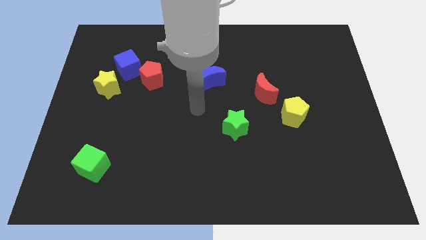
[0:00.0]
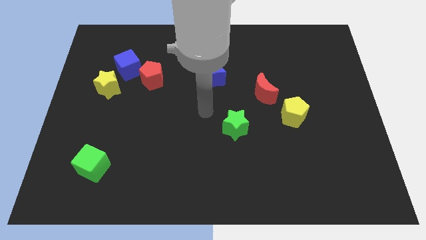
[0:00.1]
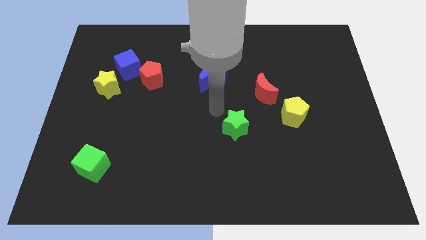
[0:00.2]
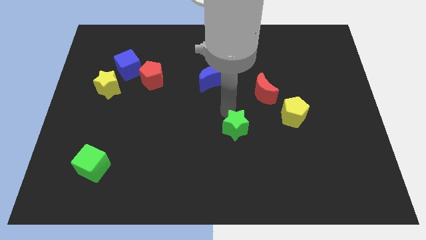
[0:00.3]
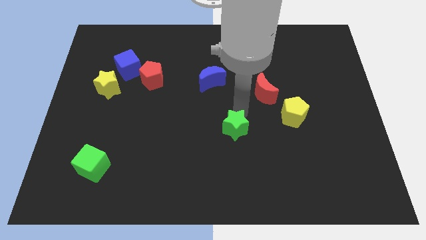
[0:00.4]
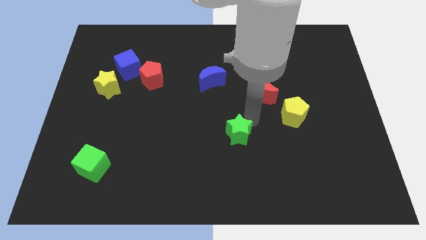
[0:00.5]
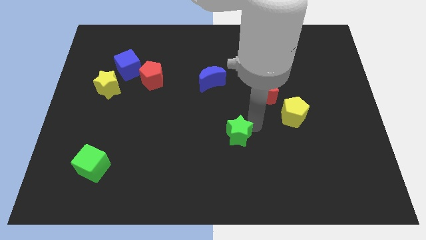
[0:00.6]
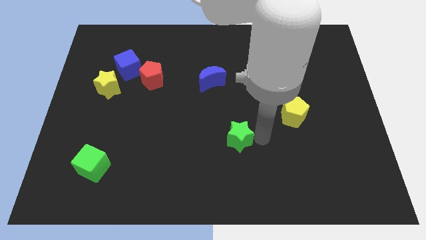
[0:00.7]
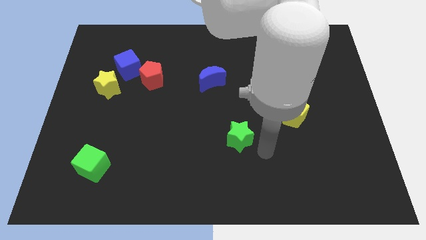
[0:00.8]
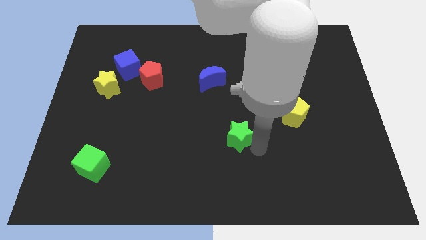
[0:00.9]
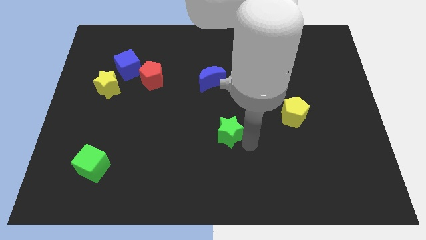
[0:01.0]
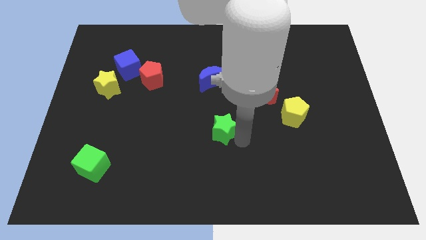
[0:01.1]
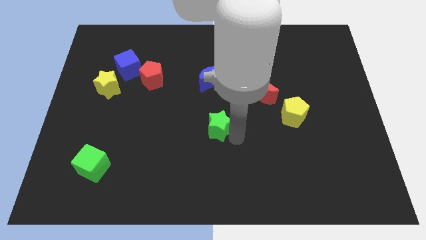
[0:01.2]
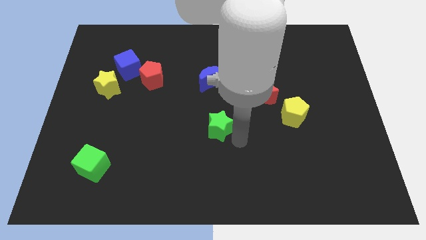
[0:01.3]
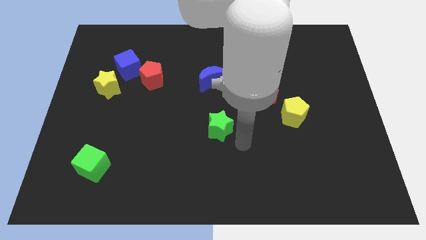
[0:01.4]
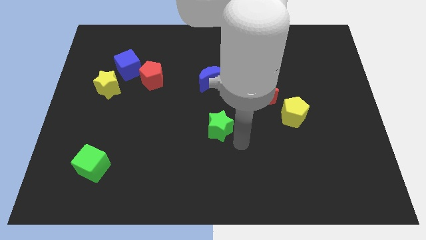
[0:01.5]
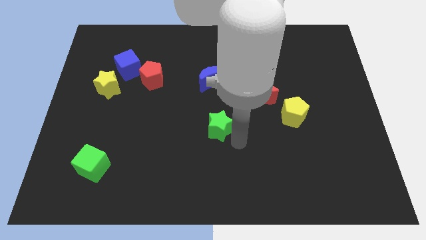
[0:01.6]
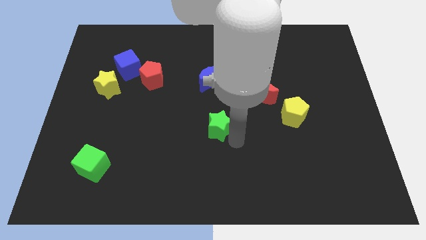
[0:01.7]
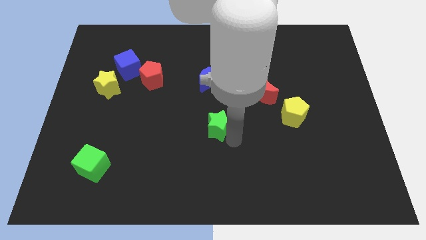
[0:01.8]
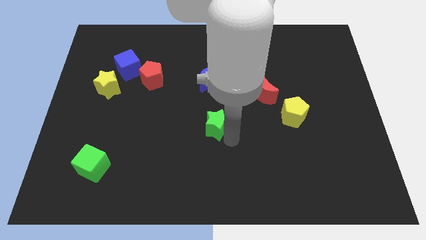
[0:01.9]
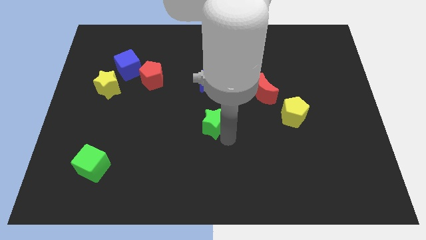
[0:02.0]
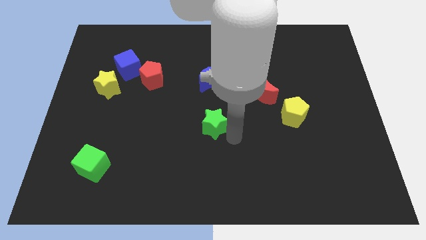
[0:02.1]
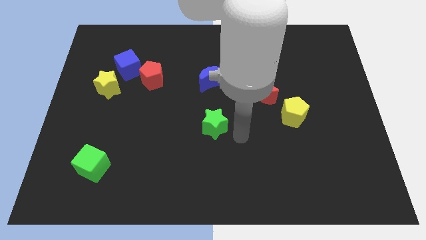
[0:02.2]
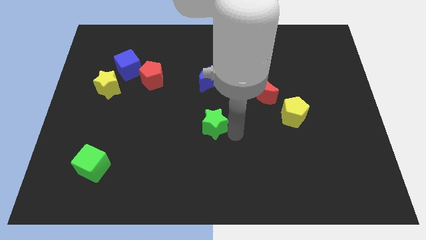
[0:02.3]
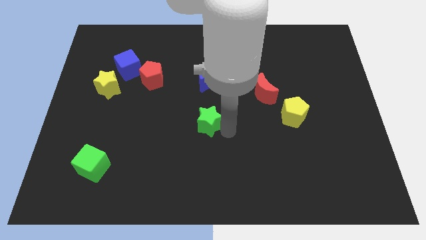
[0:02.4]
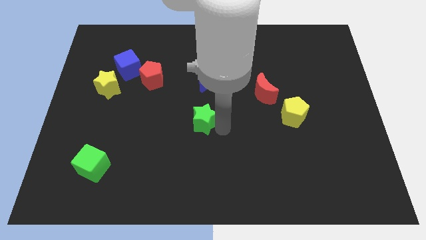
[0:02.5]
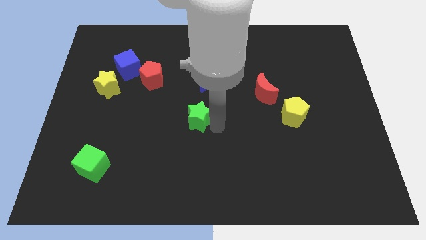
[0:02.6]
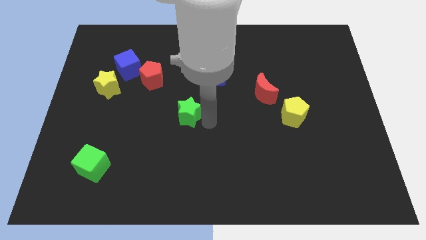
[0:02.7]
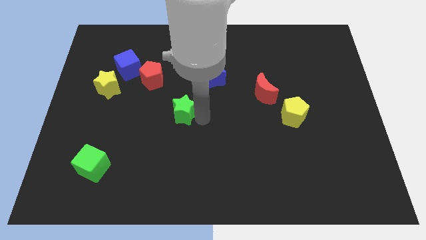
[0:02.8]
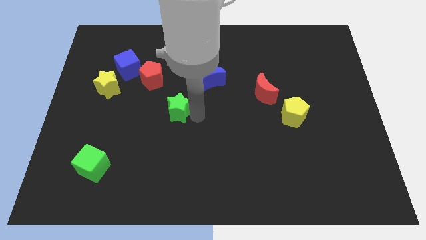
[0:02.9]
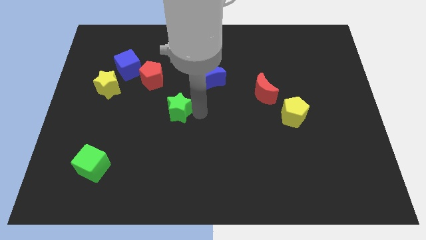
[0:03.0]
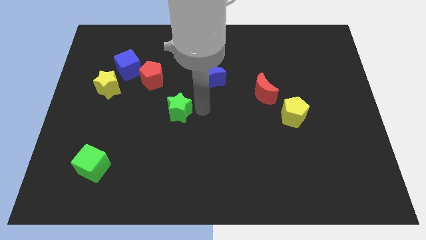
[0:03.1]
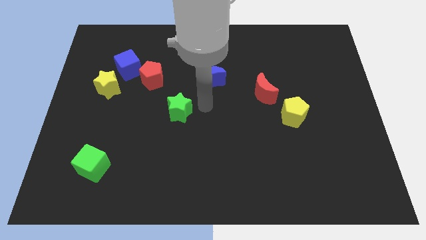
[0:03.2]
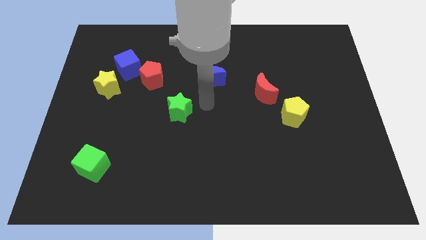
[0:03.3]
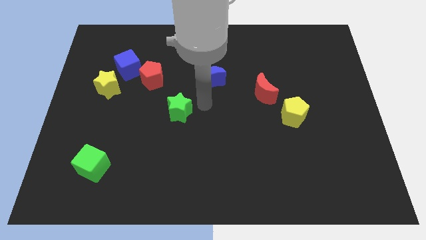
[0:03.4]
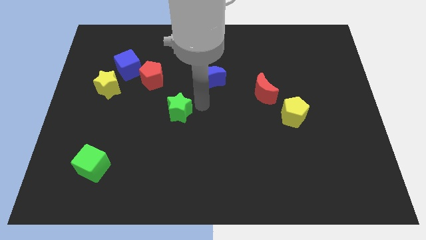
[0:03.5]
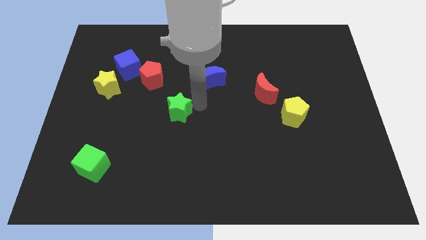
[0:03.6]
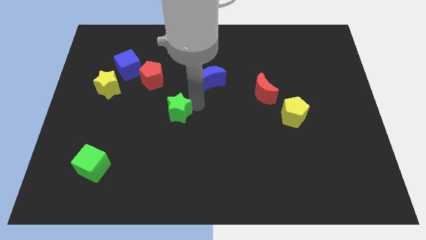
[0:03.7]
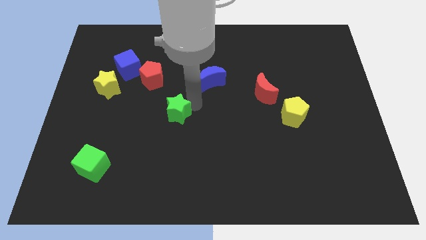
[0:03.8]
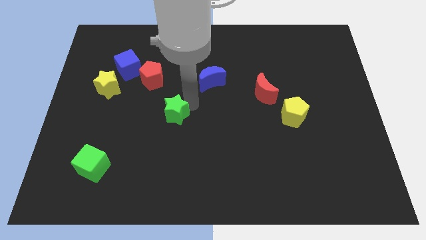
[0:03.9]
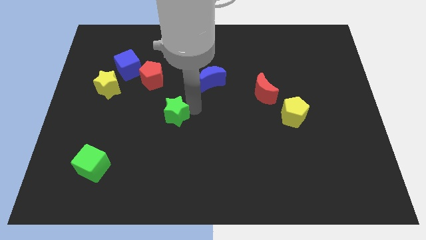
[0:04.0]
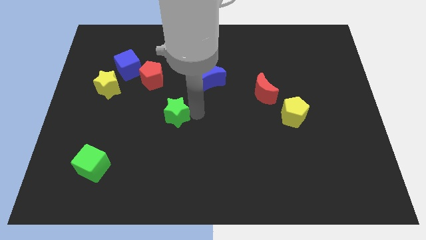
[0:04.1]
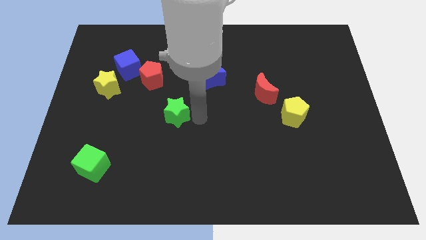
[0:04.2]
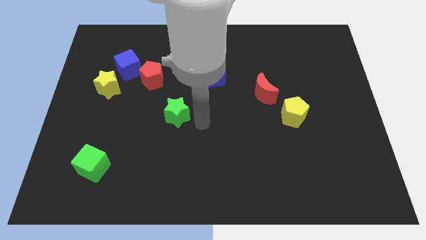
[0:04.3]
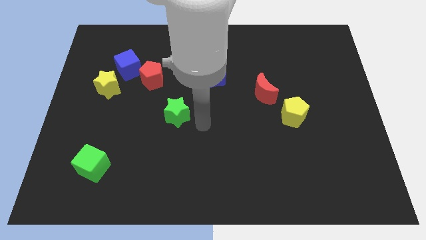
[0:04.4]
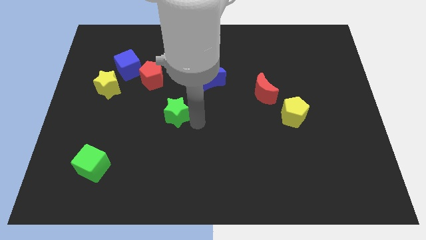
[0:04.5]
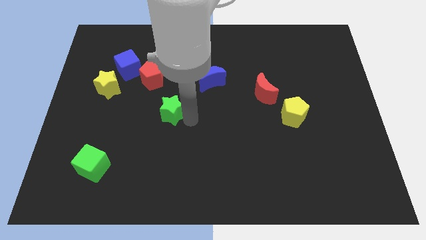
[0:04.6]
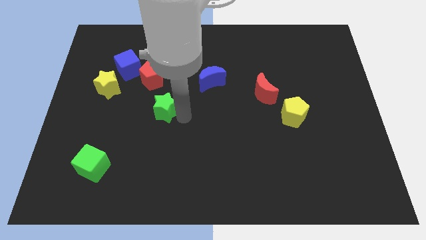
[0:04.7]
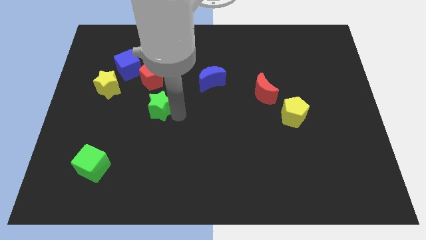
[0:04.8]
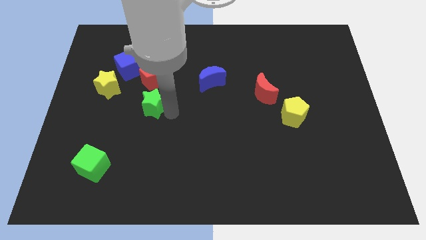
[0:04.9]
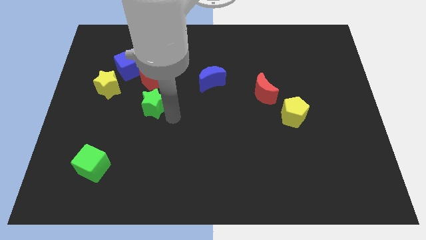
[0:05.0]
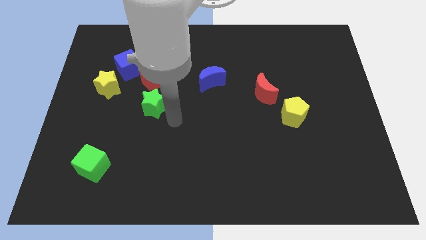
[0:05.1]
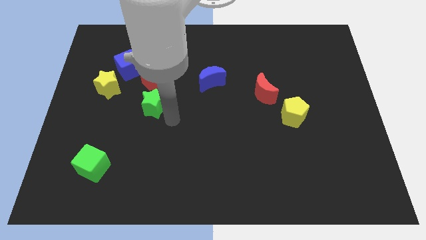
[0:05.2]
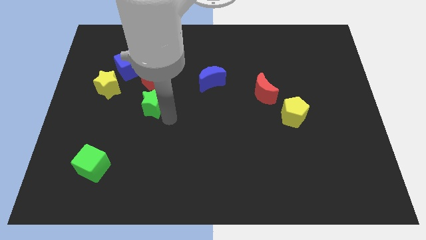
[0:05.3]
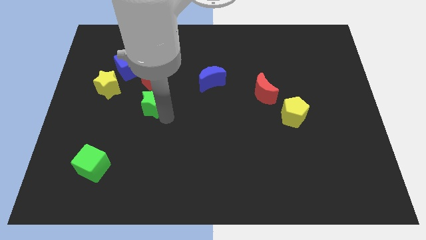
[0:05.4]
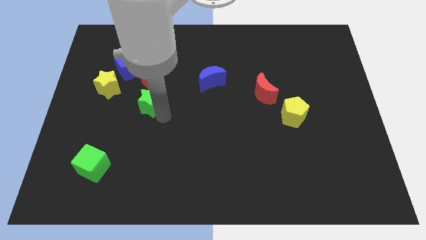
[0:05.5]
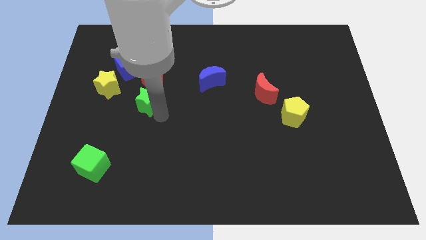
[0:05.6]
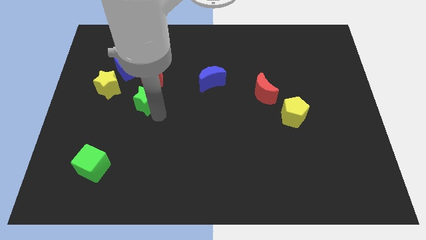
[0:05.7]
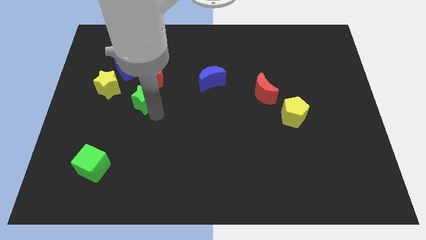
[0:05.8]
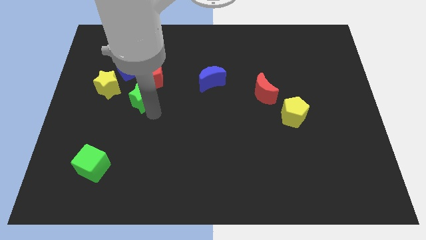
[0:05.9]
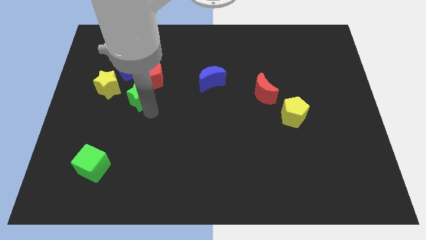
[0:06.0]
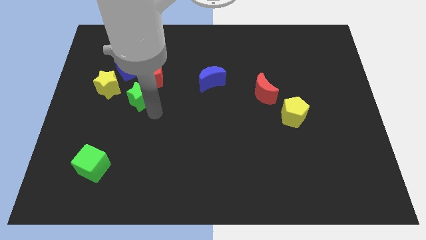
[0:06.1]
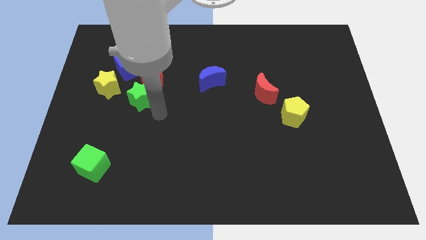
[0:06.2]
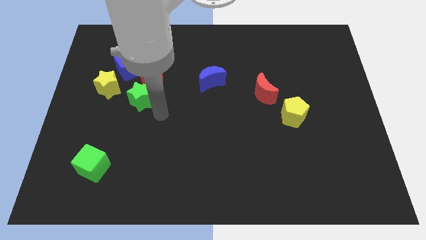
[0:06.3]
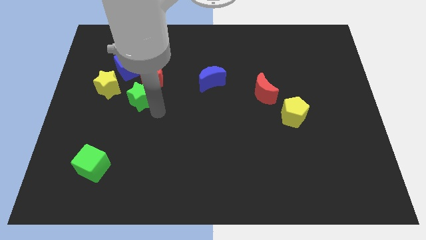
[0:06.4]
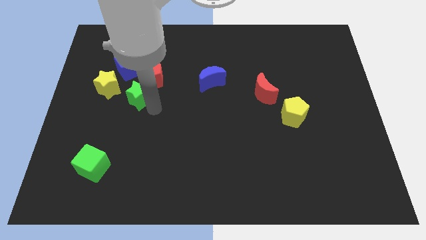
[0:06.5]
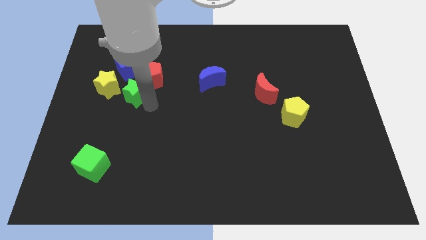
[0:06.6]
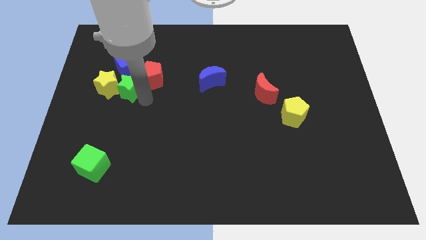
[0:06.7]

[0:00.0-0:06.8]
push the green star next to the yellow star

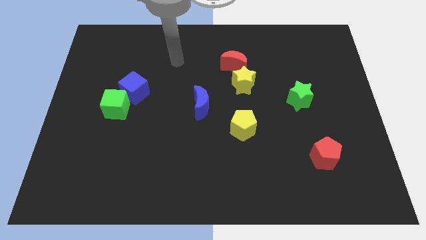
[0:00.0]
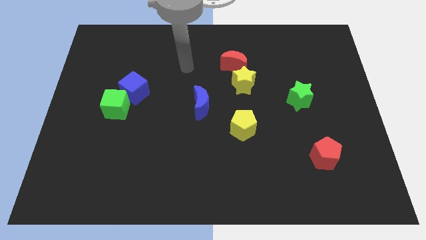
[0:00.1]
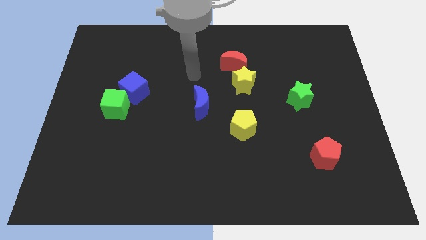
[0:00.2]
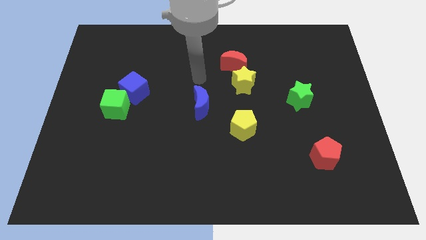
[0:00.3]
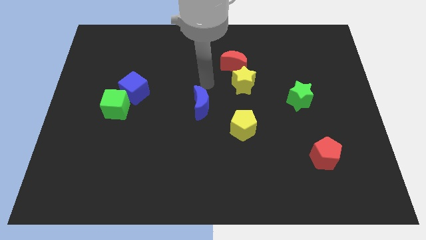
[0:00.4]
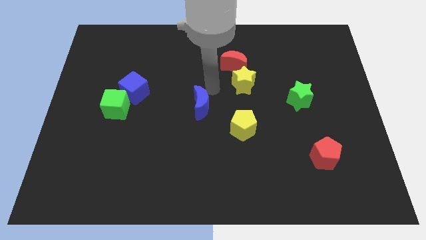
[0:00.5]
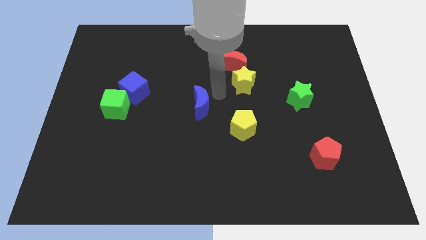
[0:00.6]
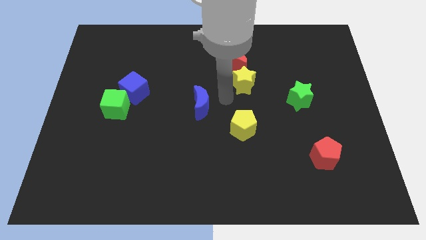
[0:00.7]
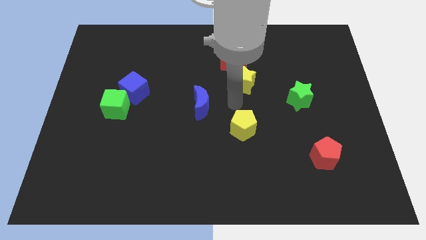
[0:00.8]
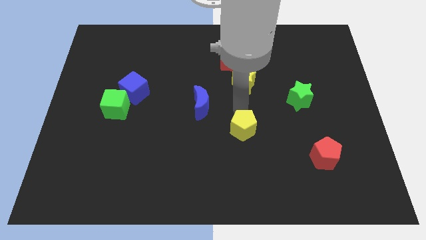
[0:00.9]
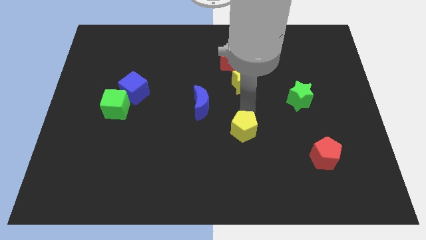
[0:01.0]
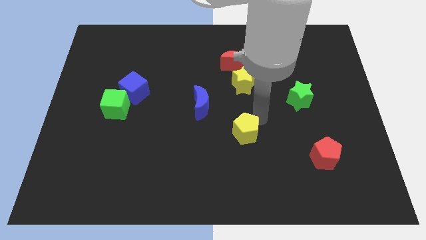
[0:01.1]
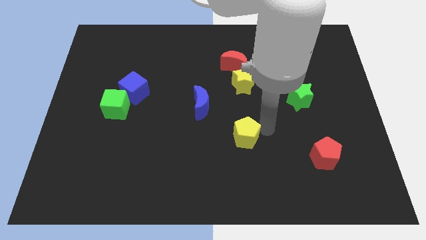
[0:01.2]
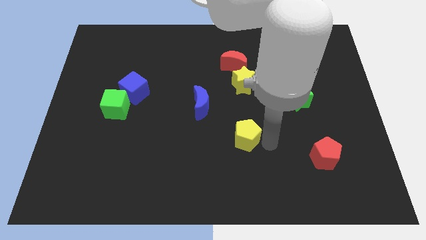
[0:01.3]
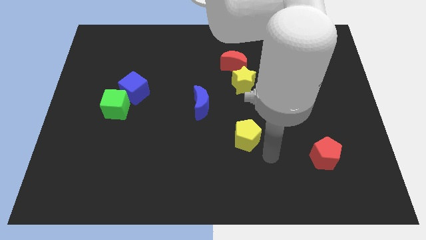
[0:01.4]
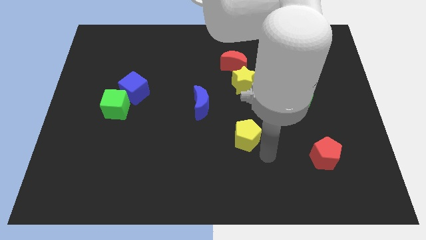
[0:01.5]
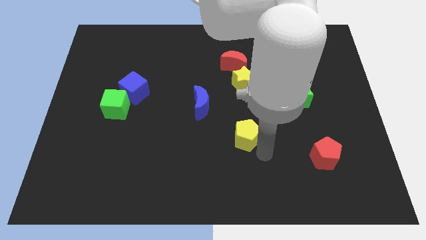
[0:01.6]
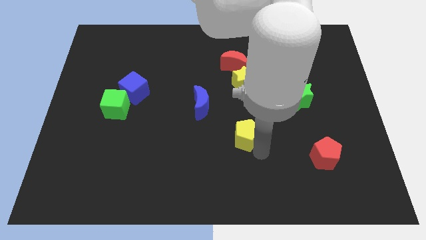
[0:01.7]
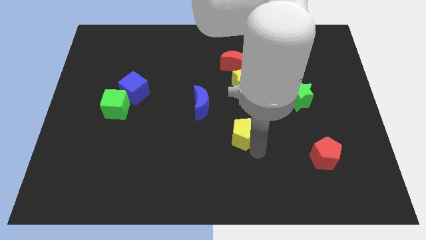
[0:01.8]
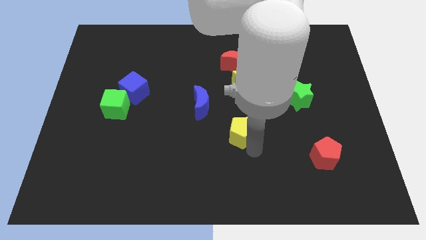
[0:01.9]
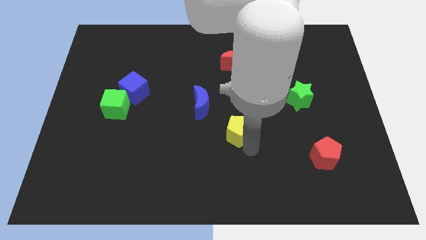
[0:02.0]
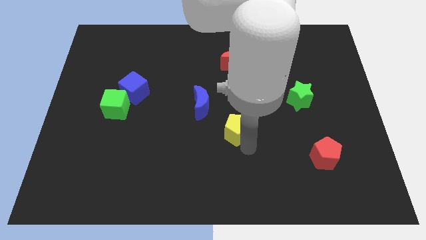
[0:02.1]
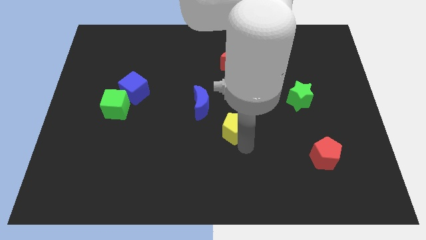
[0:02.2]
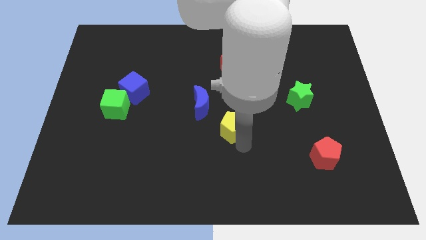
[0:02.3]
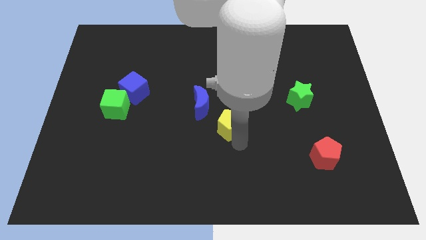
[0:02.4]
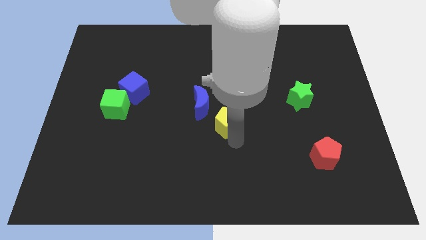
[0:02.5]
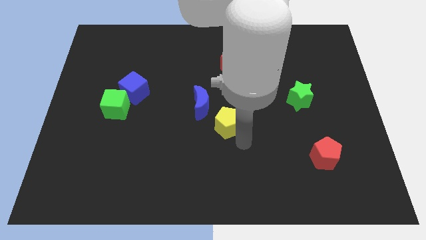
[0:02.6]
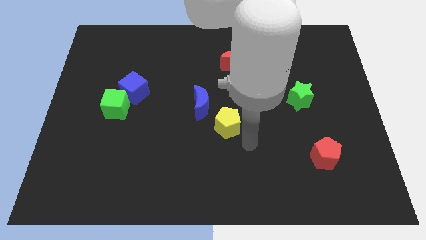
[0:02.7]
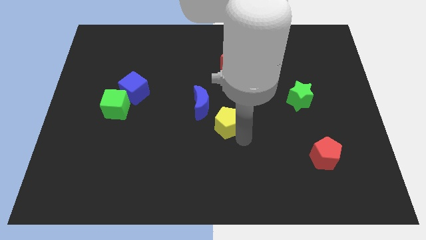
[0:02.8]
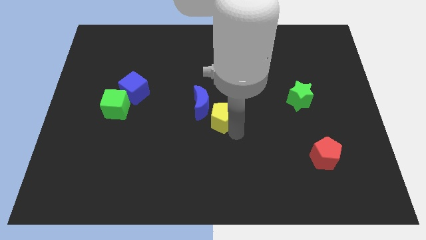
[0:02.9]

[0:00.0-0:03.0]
slide the yellow pentagon next to the blue moon
